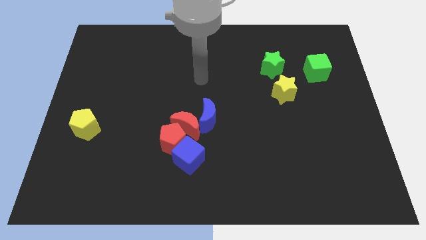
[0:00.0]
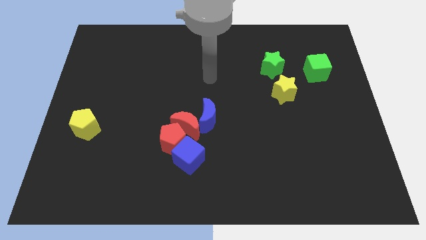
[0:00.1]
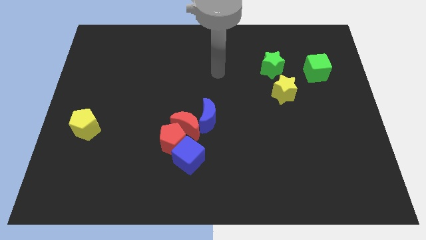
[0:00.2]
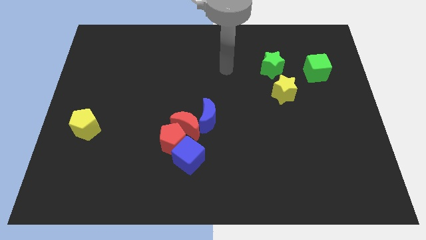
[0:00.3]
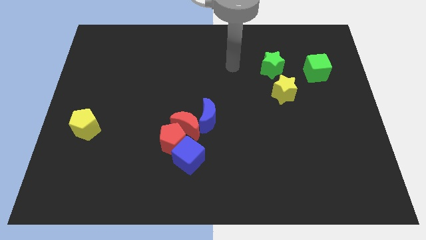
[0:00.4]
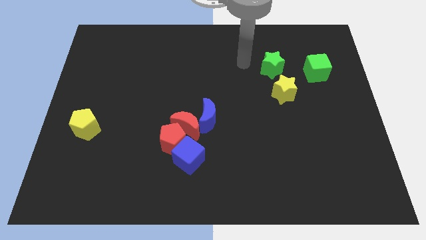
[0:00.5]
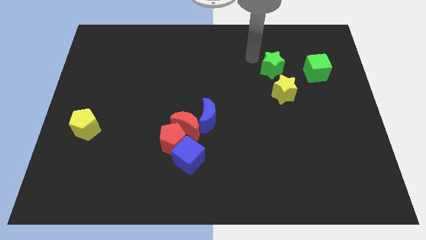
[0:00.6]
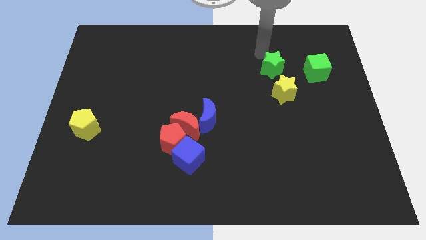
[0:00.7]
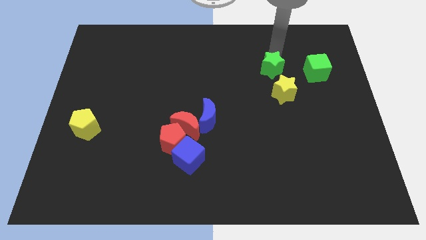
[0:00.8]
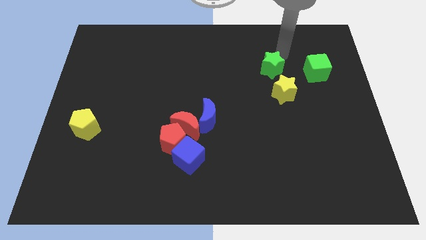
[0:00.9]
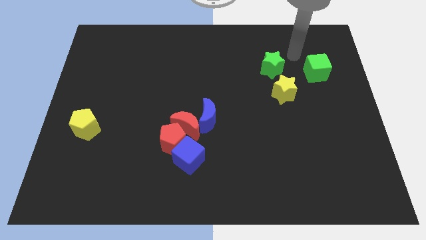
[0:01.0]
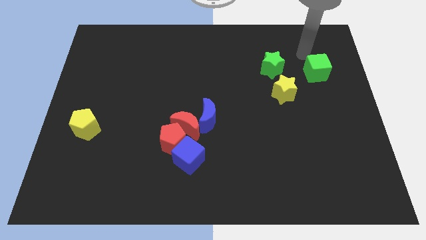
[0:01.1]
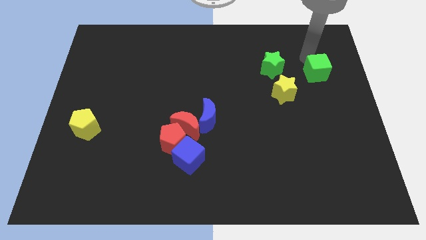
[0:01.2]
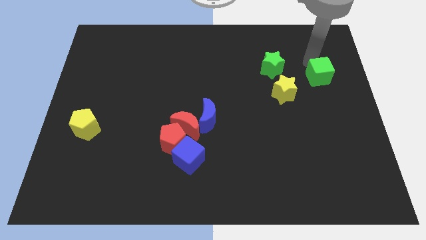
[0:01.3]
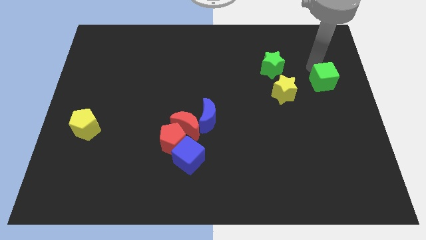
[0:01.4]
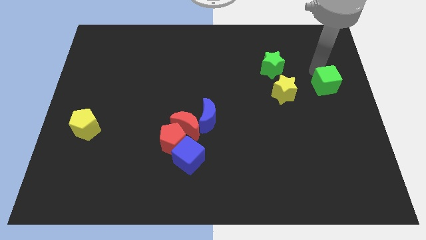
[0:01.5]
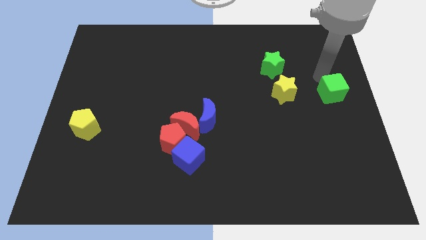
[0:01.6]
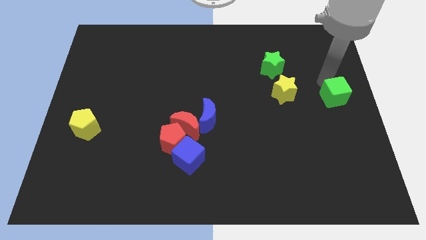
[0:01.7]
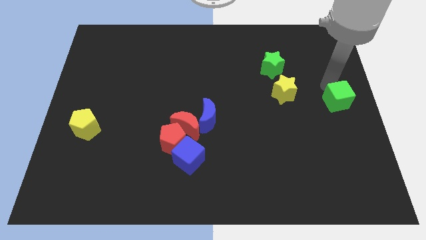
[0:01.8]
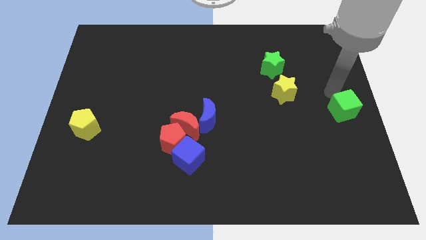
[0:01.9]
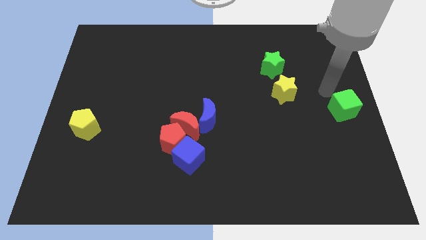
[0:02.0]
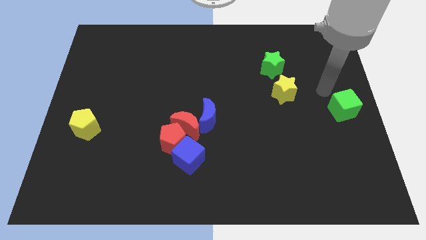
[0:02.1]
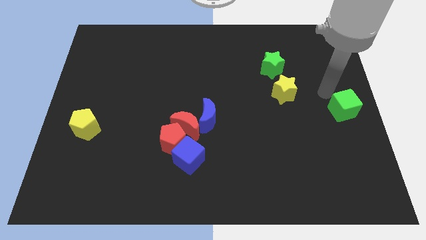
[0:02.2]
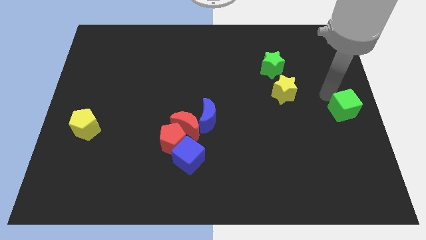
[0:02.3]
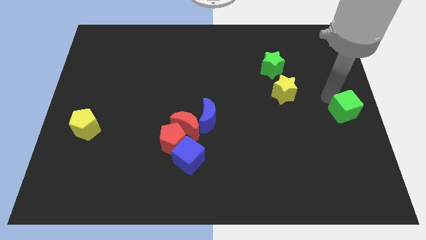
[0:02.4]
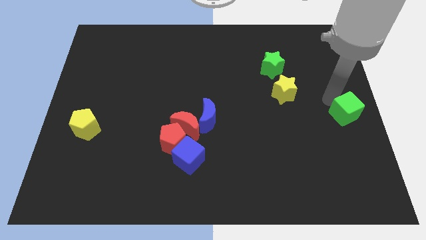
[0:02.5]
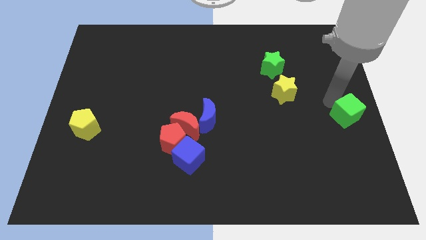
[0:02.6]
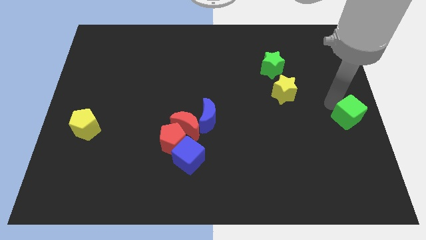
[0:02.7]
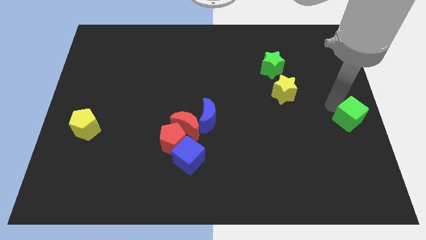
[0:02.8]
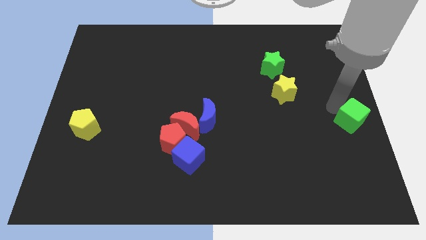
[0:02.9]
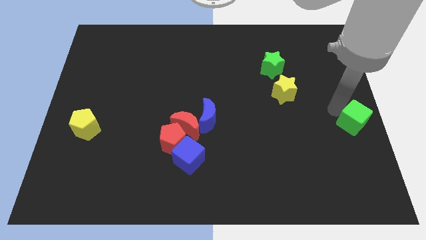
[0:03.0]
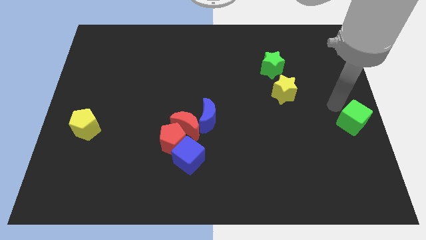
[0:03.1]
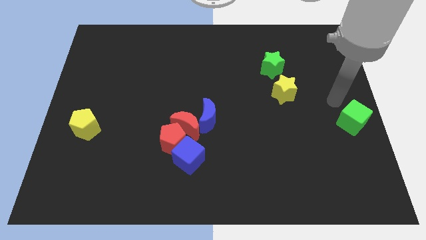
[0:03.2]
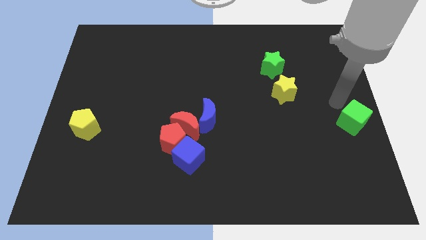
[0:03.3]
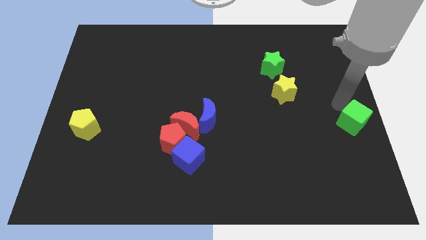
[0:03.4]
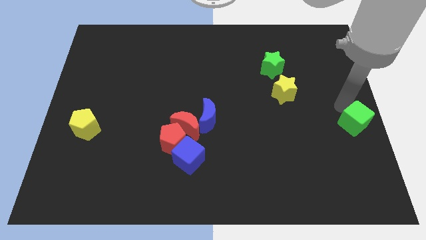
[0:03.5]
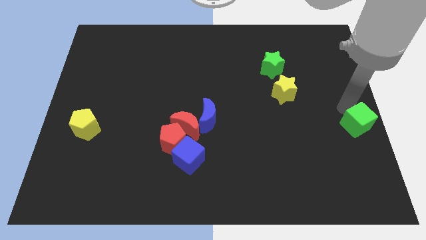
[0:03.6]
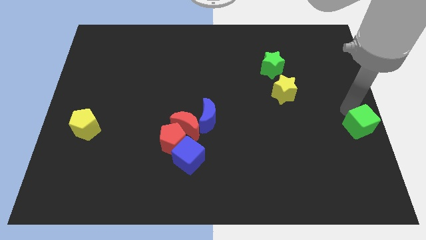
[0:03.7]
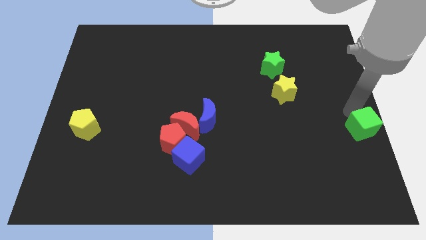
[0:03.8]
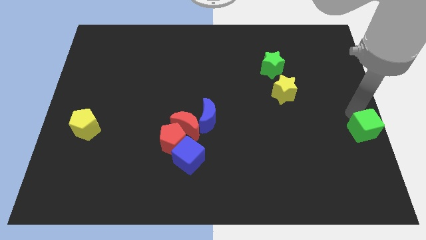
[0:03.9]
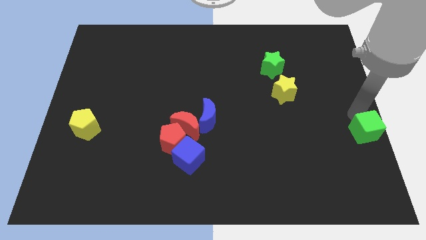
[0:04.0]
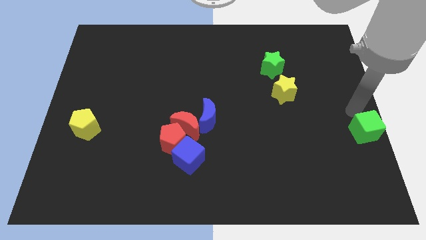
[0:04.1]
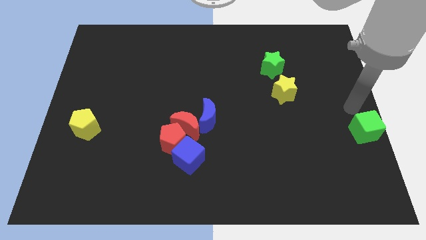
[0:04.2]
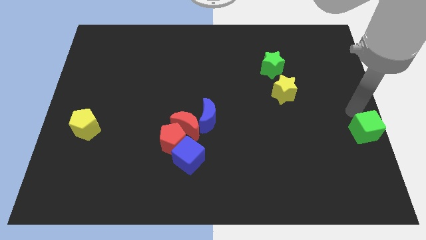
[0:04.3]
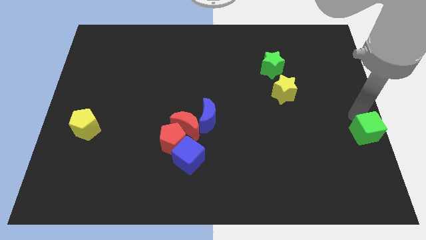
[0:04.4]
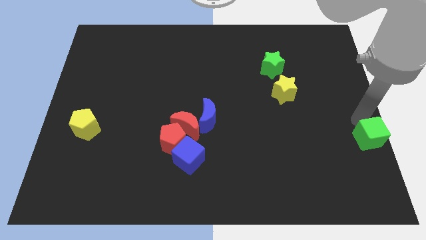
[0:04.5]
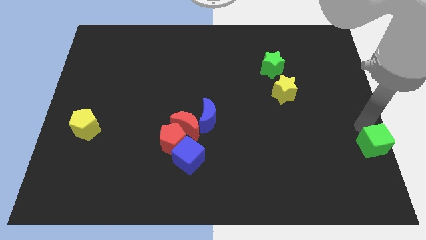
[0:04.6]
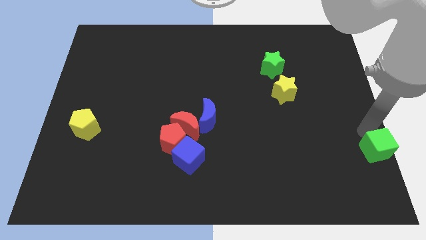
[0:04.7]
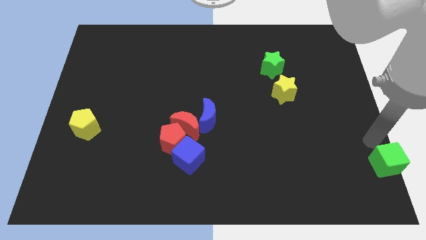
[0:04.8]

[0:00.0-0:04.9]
move the green cube to the bottom right of the board

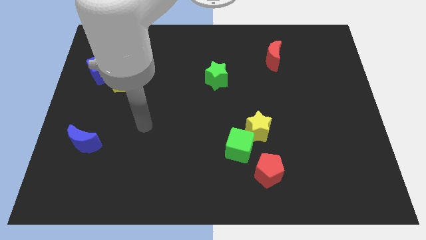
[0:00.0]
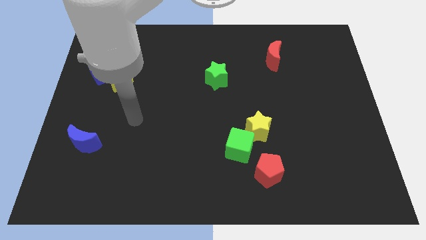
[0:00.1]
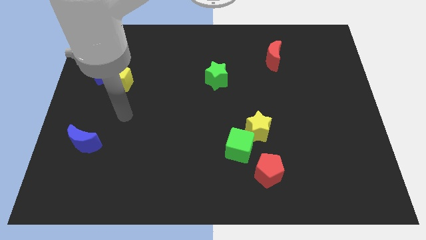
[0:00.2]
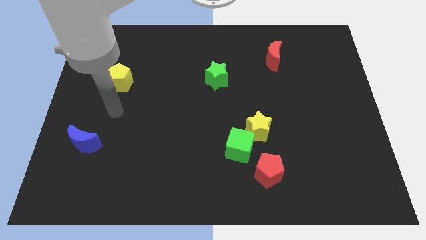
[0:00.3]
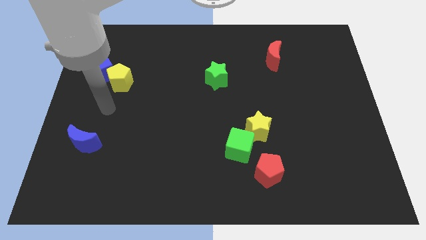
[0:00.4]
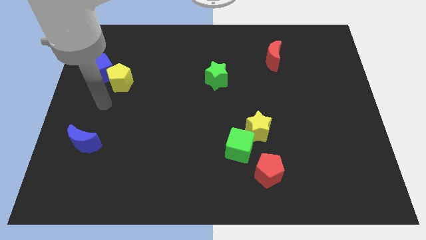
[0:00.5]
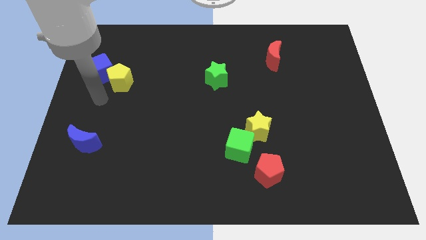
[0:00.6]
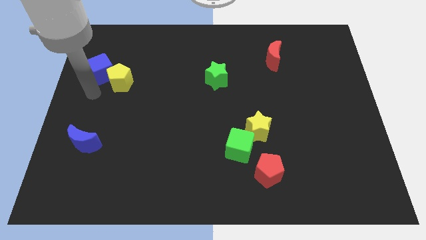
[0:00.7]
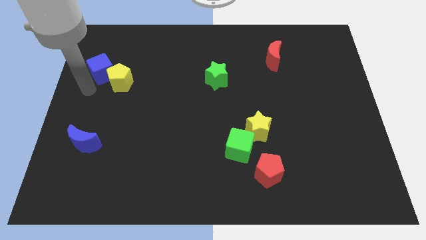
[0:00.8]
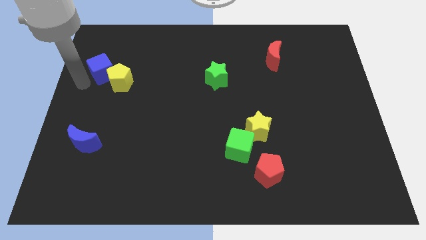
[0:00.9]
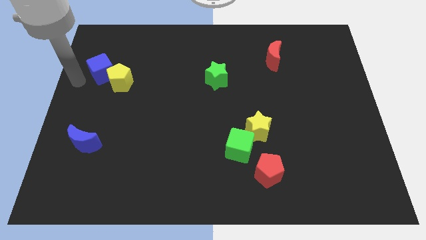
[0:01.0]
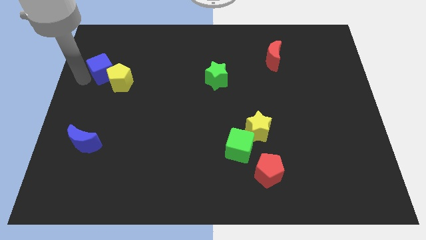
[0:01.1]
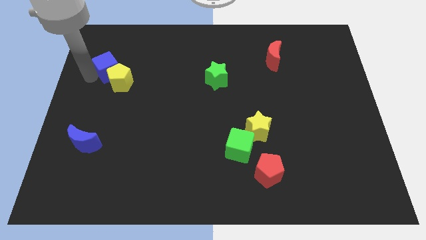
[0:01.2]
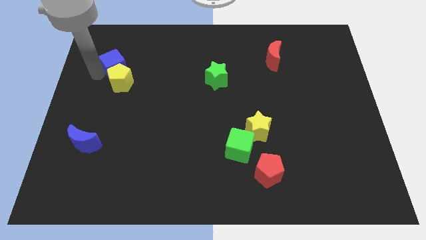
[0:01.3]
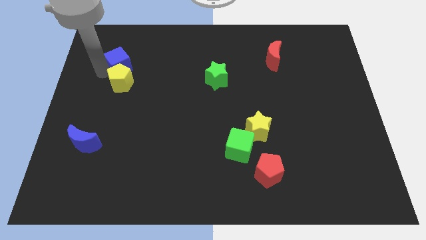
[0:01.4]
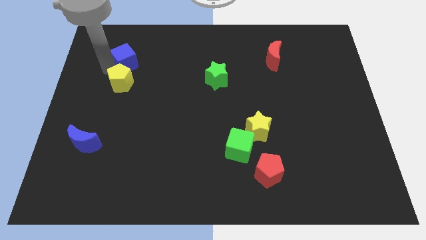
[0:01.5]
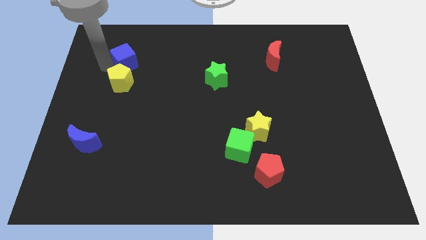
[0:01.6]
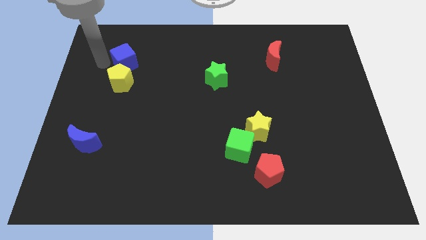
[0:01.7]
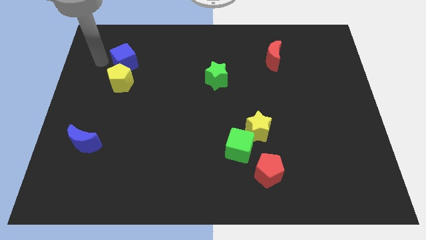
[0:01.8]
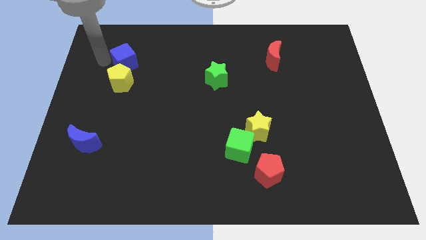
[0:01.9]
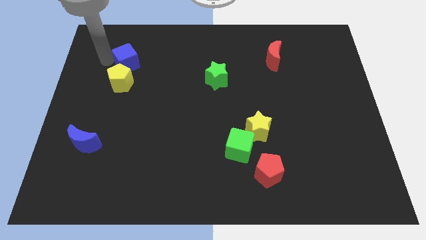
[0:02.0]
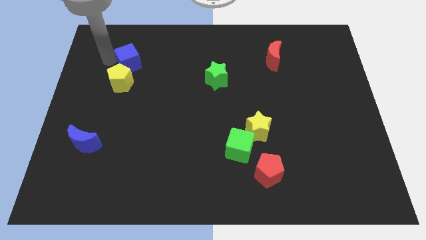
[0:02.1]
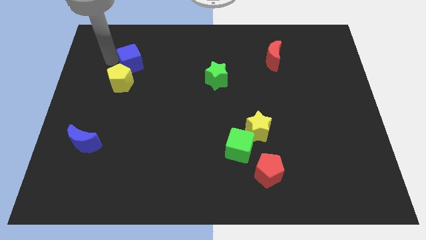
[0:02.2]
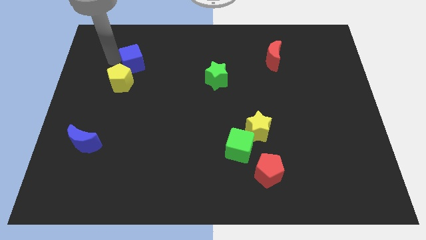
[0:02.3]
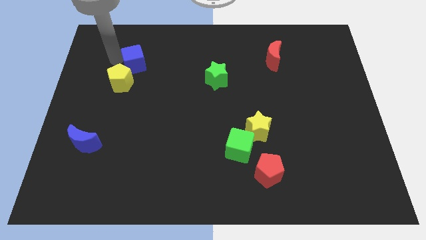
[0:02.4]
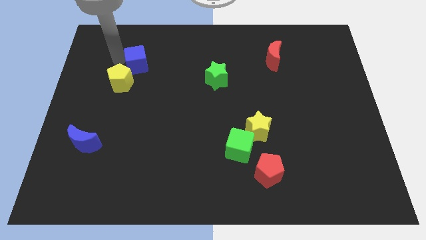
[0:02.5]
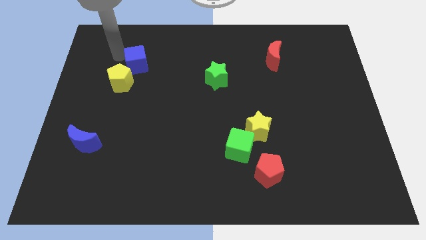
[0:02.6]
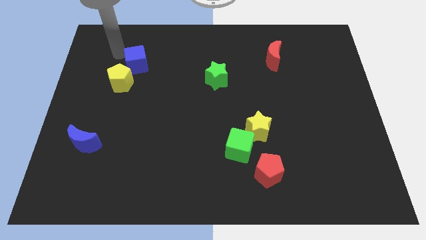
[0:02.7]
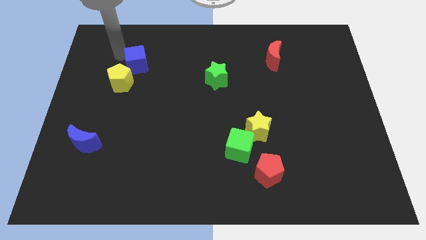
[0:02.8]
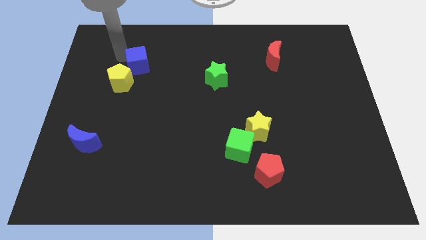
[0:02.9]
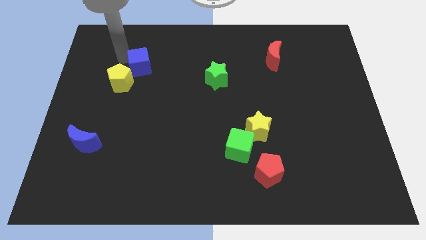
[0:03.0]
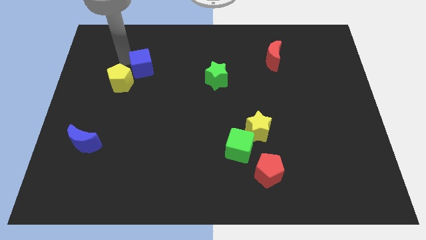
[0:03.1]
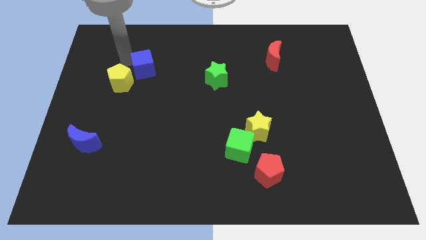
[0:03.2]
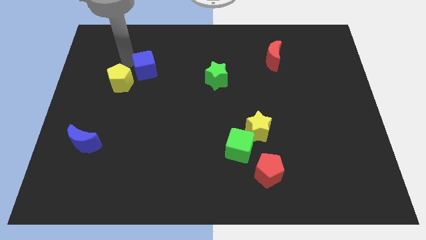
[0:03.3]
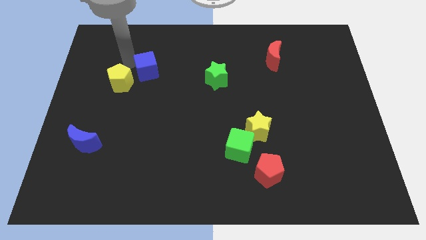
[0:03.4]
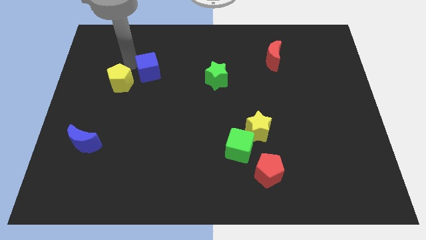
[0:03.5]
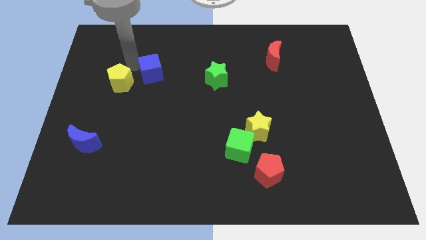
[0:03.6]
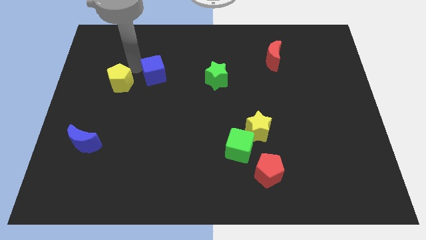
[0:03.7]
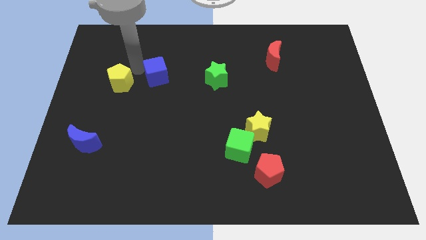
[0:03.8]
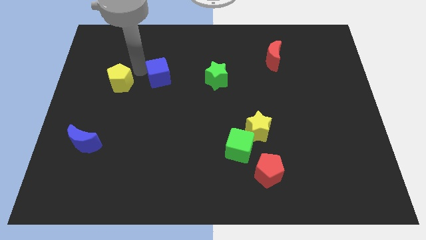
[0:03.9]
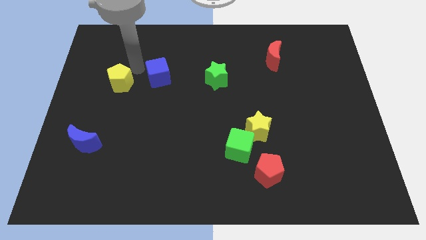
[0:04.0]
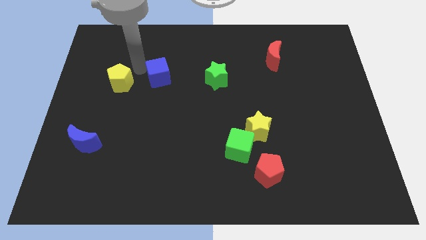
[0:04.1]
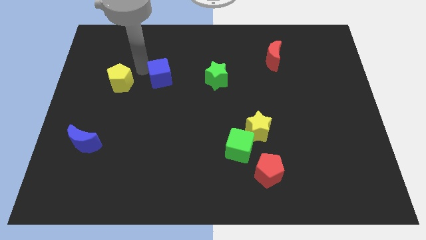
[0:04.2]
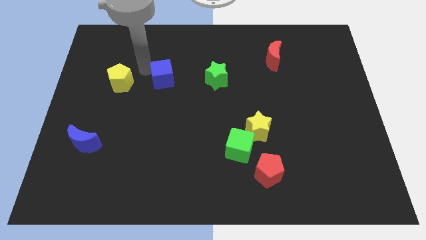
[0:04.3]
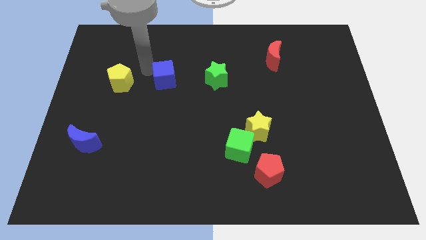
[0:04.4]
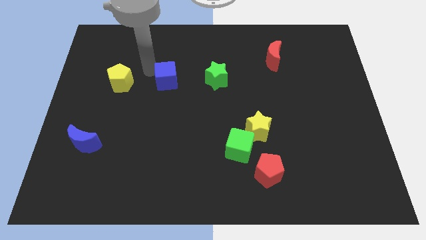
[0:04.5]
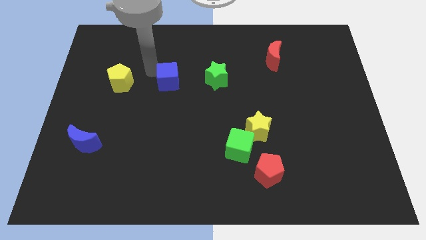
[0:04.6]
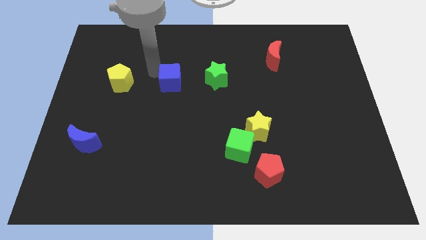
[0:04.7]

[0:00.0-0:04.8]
slide the blue cube to the middle
